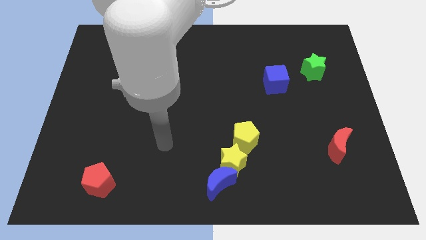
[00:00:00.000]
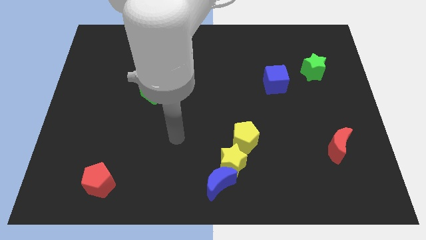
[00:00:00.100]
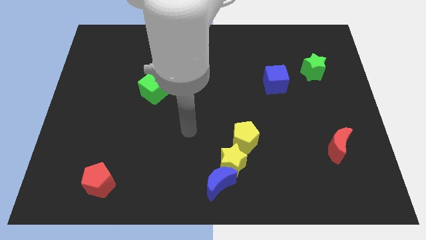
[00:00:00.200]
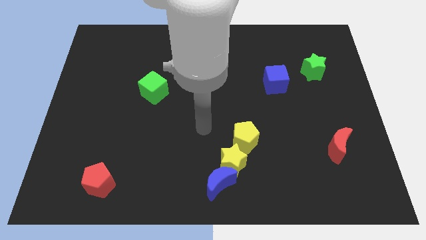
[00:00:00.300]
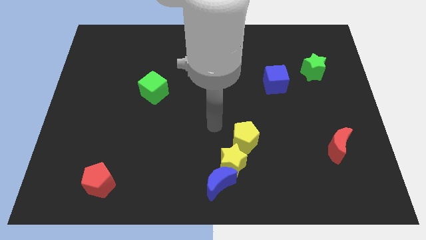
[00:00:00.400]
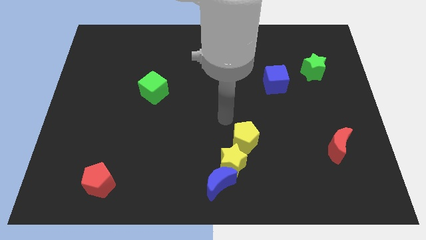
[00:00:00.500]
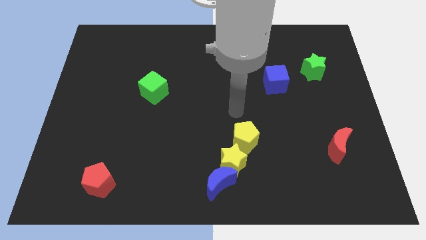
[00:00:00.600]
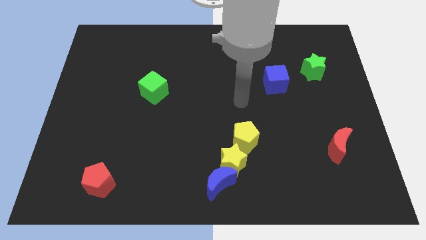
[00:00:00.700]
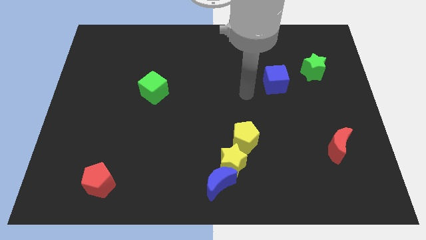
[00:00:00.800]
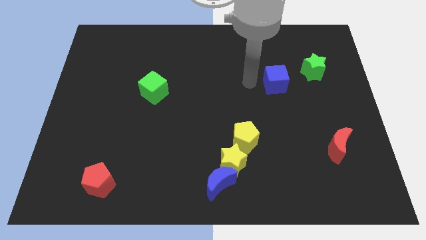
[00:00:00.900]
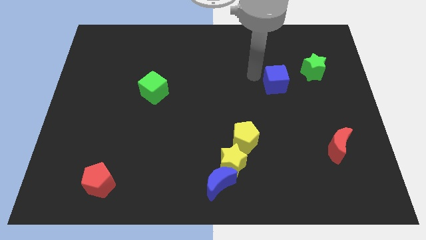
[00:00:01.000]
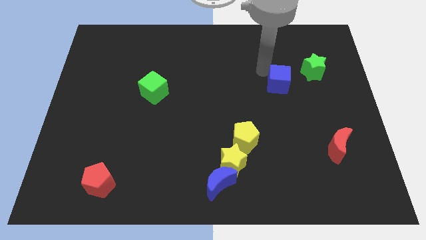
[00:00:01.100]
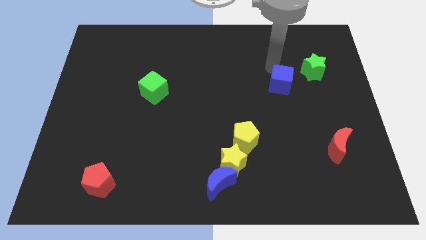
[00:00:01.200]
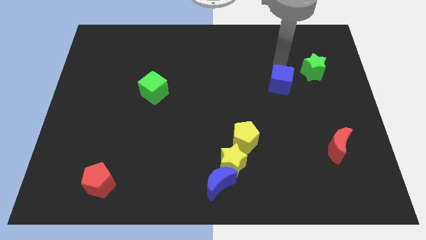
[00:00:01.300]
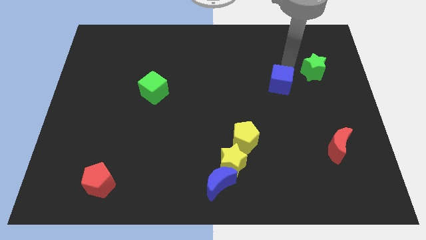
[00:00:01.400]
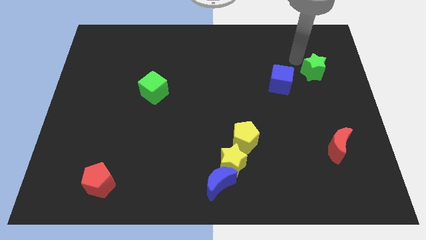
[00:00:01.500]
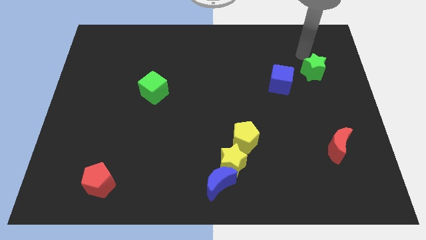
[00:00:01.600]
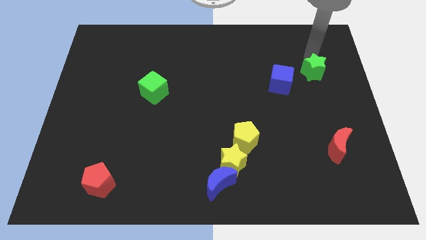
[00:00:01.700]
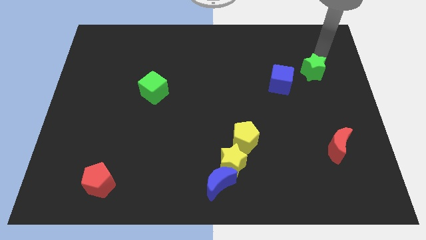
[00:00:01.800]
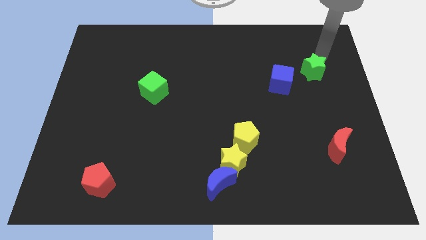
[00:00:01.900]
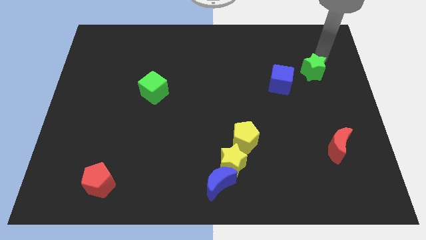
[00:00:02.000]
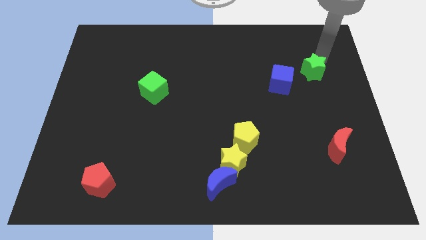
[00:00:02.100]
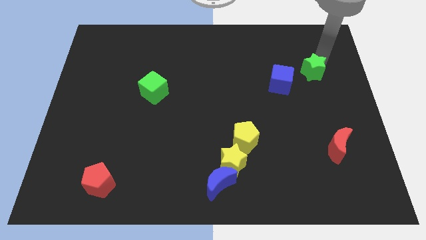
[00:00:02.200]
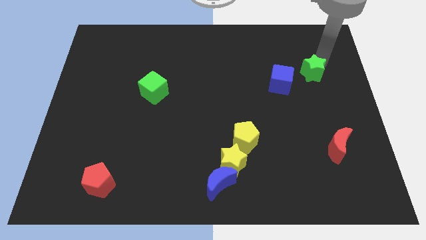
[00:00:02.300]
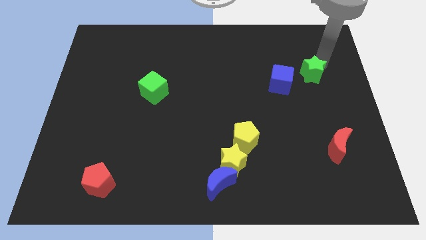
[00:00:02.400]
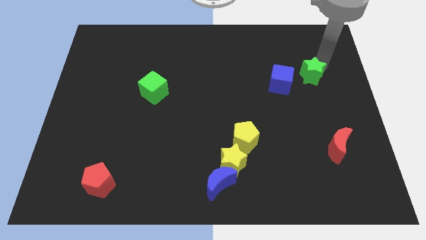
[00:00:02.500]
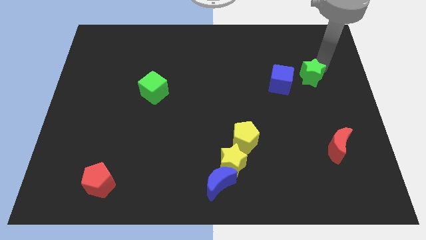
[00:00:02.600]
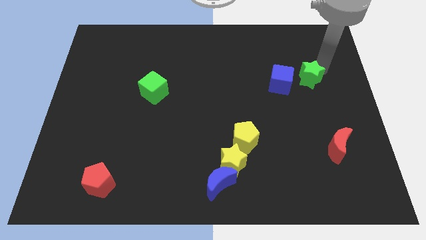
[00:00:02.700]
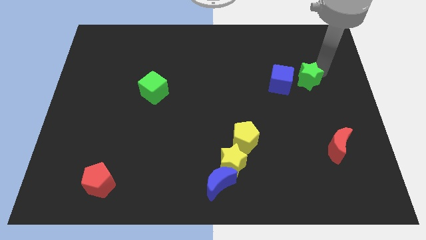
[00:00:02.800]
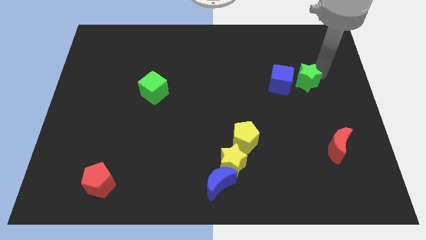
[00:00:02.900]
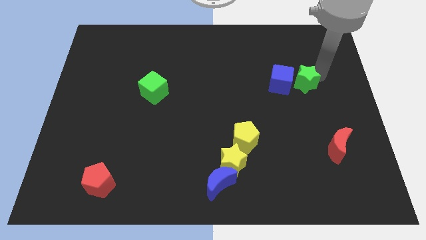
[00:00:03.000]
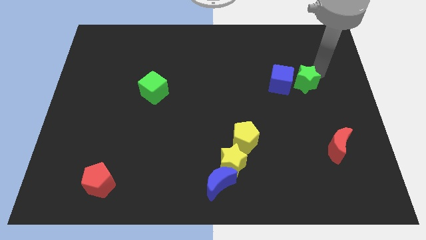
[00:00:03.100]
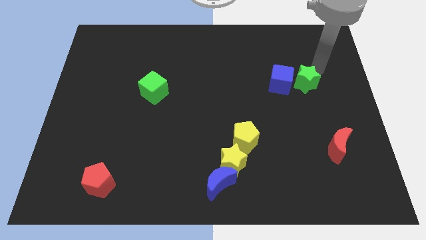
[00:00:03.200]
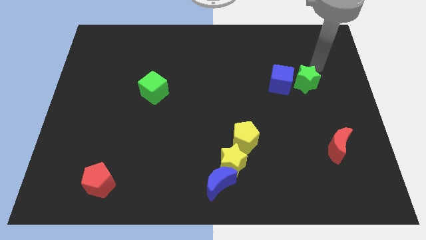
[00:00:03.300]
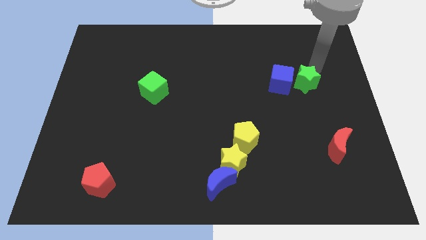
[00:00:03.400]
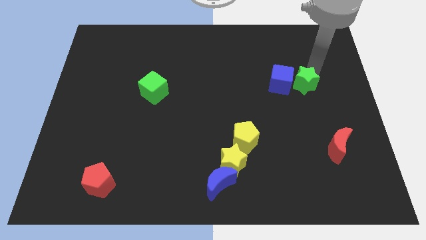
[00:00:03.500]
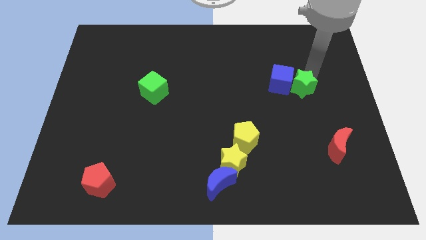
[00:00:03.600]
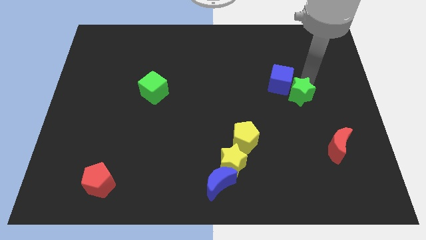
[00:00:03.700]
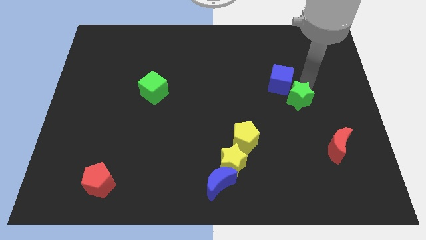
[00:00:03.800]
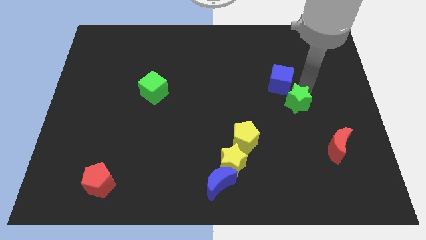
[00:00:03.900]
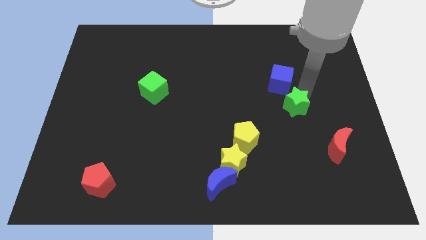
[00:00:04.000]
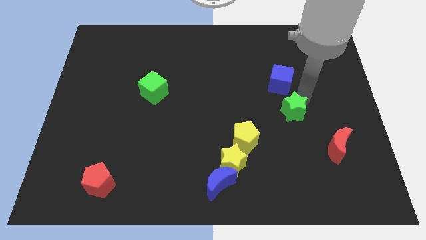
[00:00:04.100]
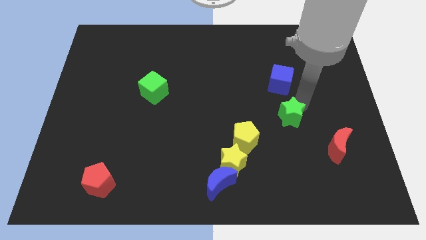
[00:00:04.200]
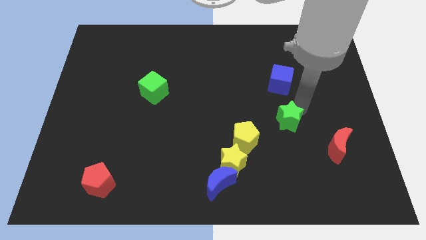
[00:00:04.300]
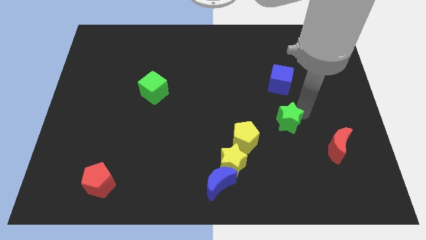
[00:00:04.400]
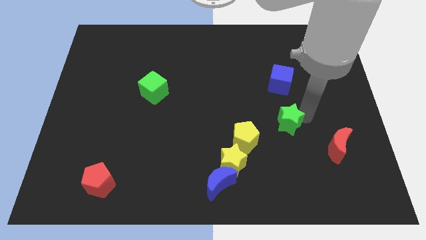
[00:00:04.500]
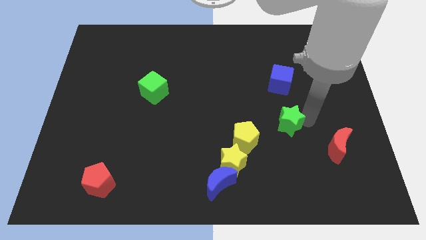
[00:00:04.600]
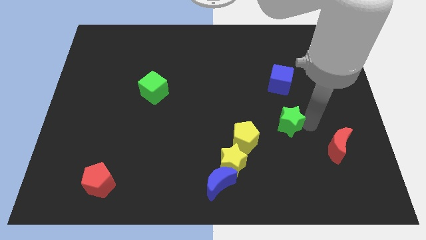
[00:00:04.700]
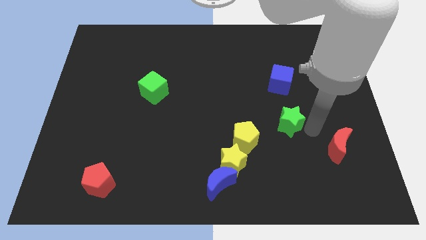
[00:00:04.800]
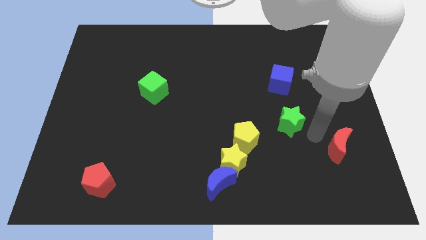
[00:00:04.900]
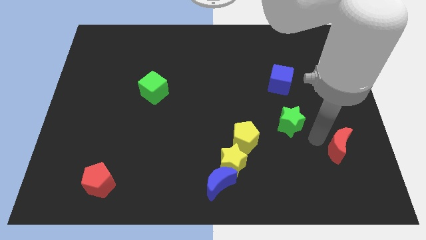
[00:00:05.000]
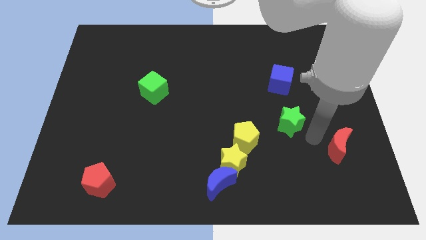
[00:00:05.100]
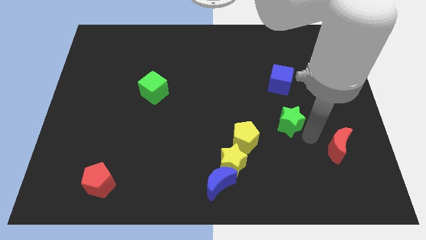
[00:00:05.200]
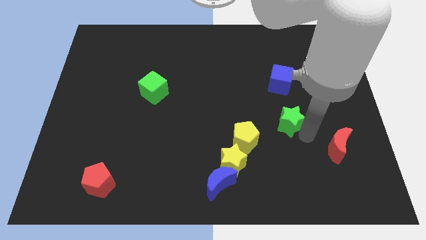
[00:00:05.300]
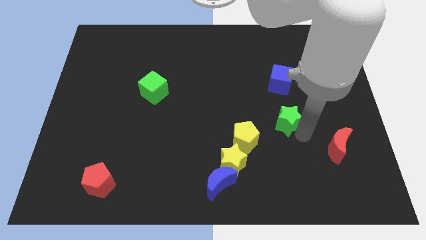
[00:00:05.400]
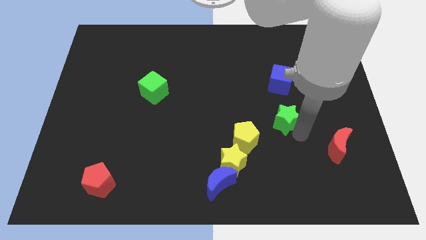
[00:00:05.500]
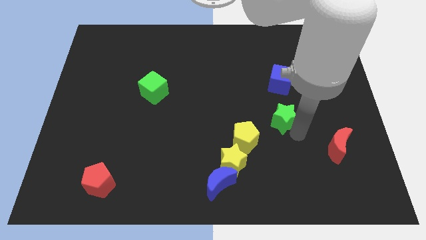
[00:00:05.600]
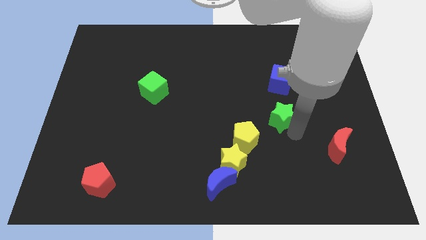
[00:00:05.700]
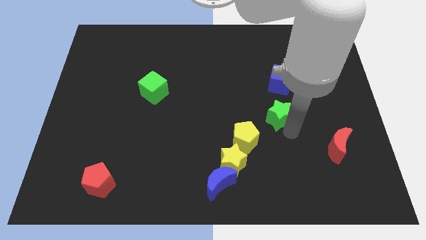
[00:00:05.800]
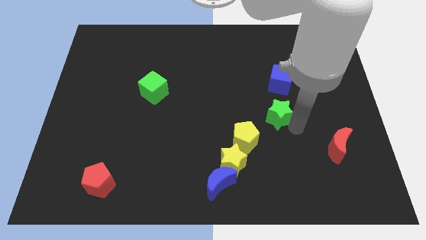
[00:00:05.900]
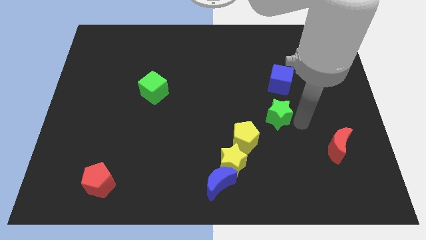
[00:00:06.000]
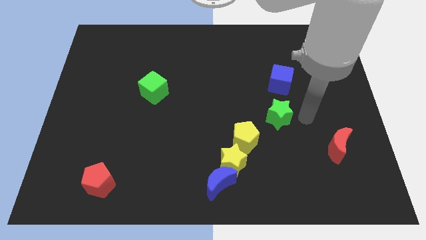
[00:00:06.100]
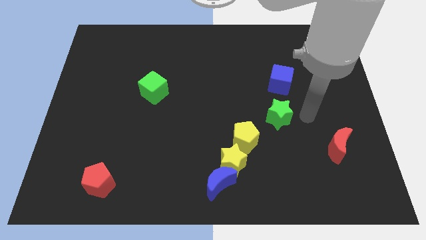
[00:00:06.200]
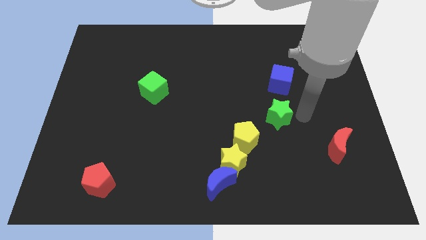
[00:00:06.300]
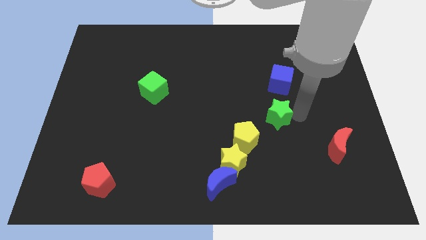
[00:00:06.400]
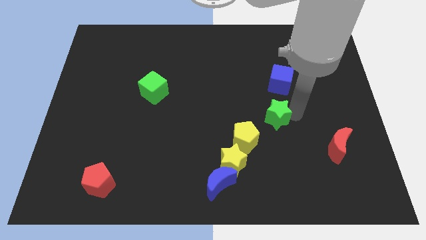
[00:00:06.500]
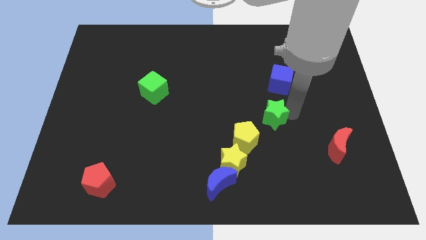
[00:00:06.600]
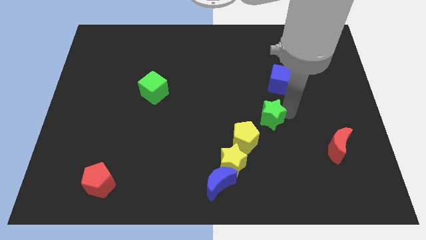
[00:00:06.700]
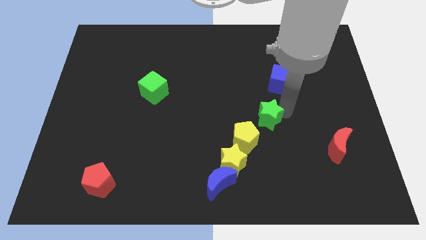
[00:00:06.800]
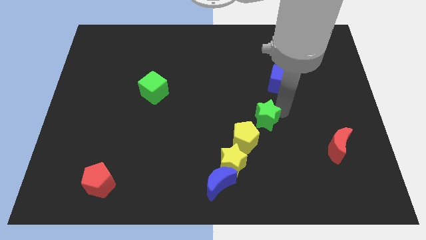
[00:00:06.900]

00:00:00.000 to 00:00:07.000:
slide the green star downwards and then left

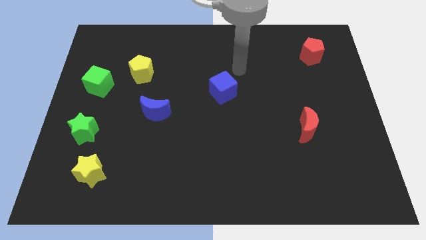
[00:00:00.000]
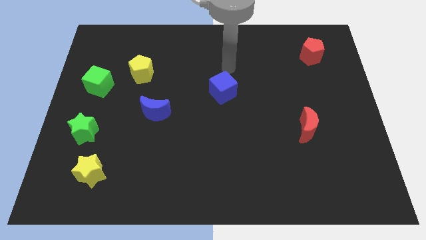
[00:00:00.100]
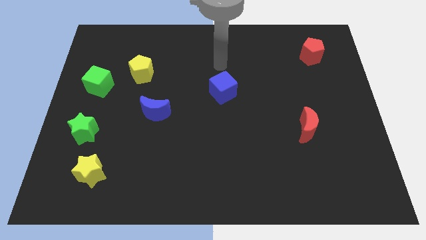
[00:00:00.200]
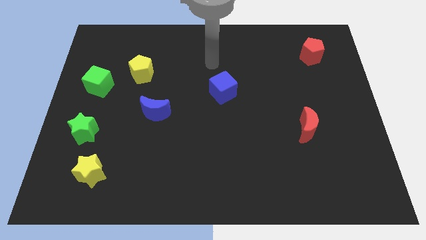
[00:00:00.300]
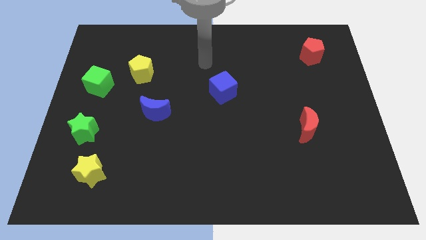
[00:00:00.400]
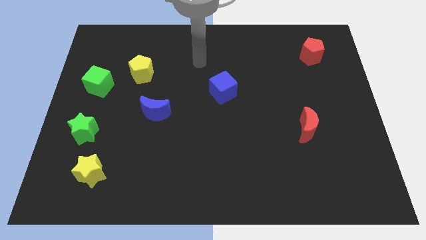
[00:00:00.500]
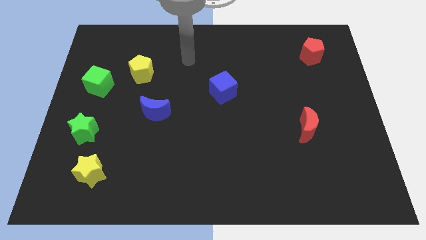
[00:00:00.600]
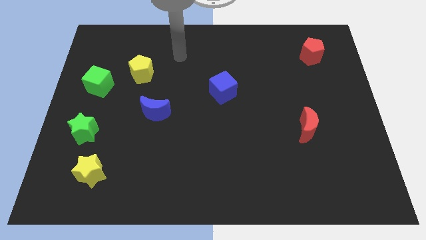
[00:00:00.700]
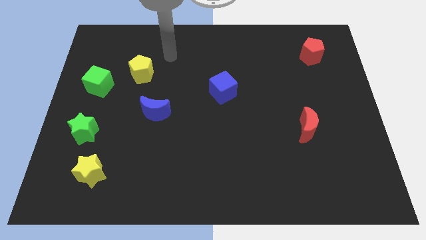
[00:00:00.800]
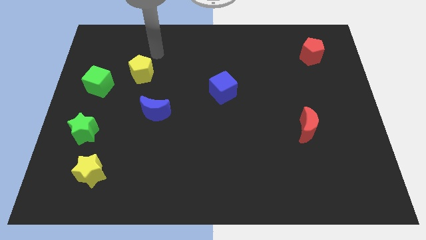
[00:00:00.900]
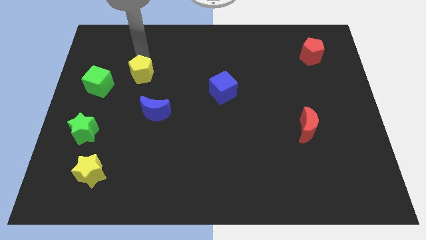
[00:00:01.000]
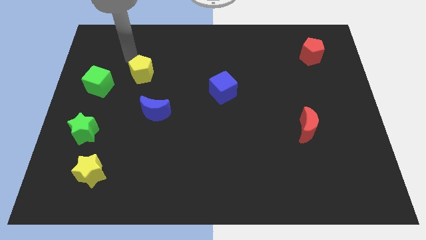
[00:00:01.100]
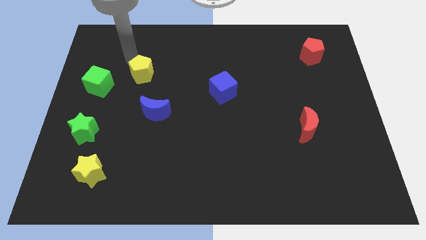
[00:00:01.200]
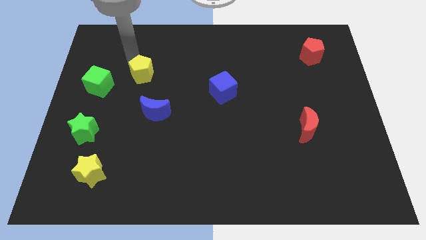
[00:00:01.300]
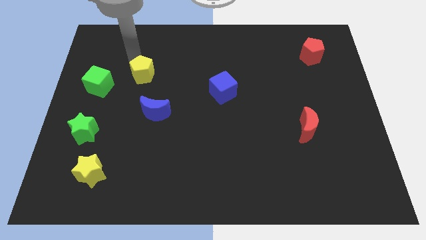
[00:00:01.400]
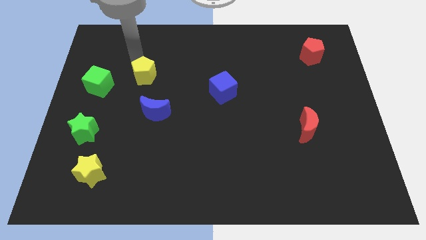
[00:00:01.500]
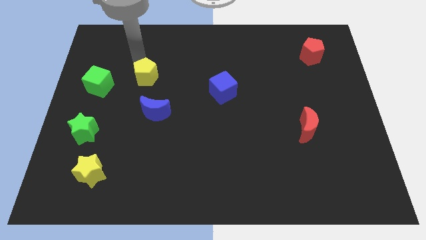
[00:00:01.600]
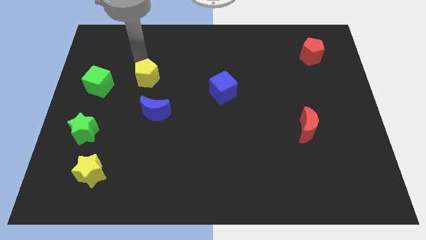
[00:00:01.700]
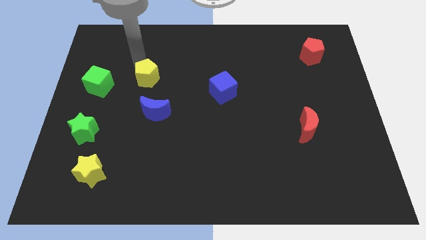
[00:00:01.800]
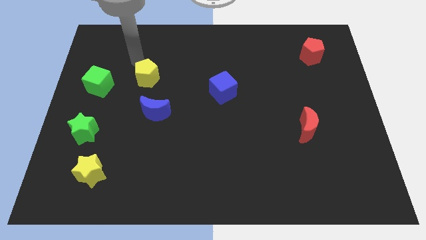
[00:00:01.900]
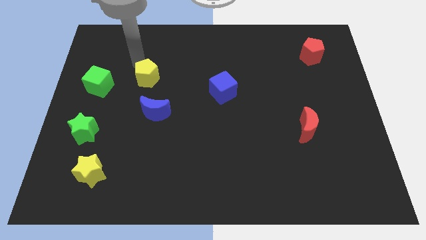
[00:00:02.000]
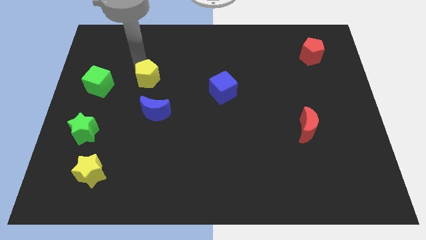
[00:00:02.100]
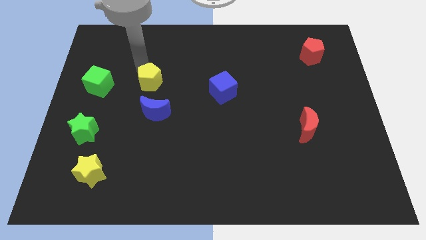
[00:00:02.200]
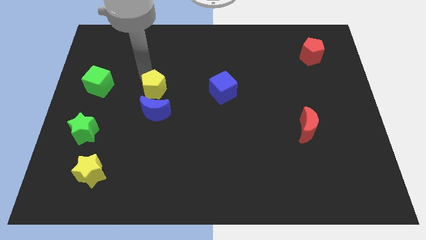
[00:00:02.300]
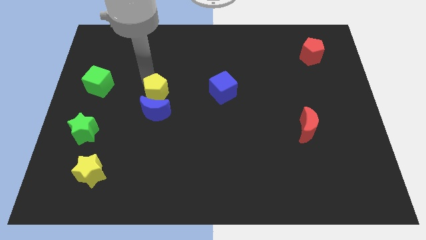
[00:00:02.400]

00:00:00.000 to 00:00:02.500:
move the yellow pentagon a little downwards and to the right diagonally
